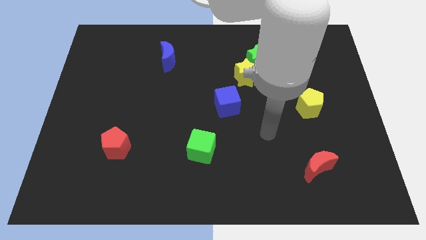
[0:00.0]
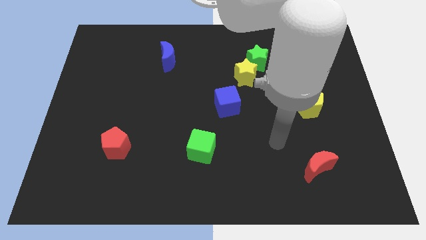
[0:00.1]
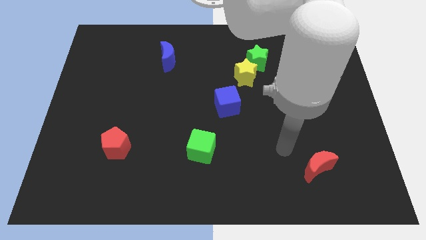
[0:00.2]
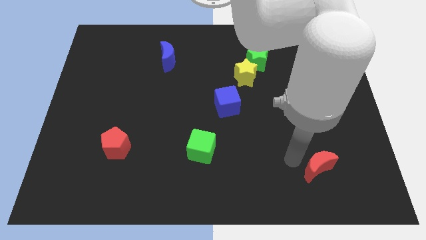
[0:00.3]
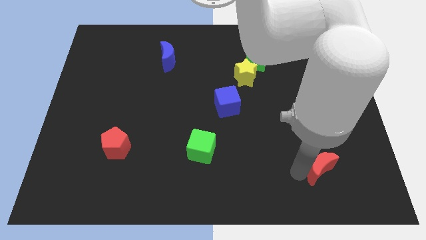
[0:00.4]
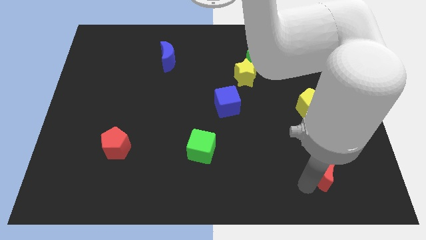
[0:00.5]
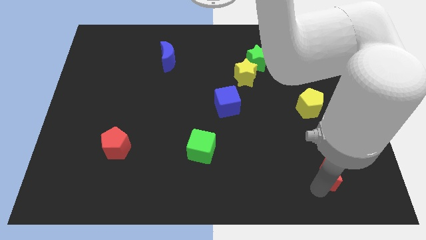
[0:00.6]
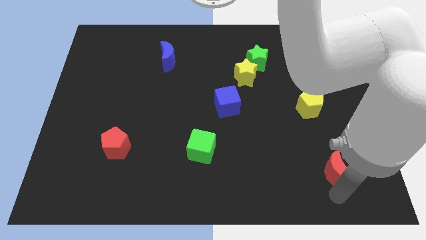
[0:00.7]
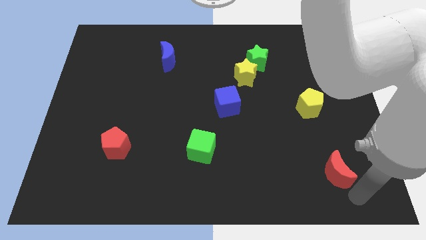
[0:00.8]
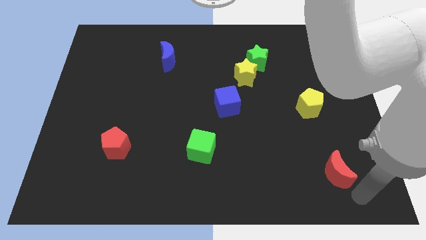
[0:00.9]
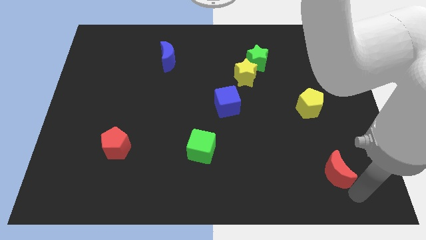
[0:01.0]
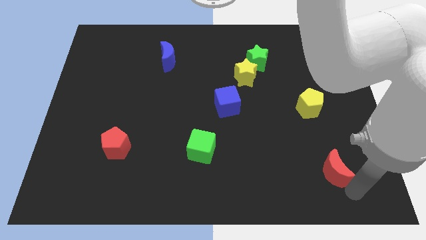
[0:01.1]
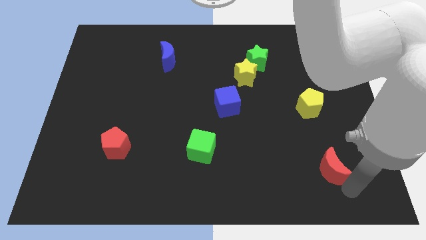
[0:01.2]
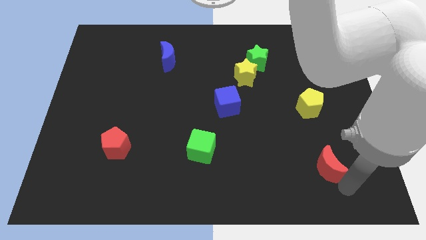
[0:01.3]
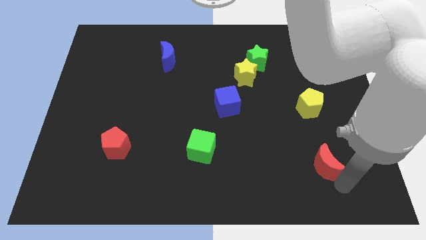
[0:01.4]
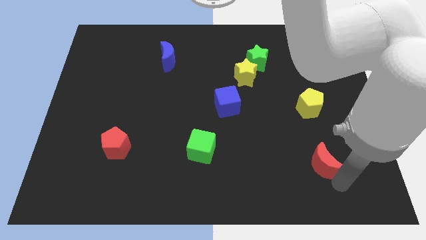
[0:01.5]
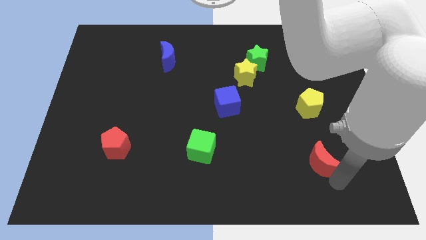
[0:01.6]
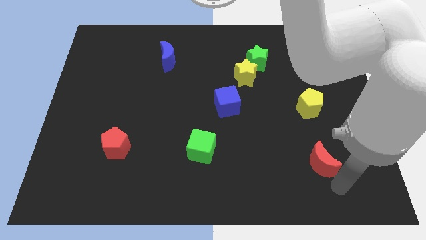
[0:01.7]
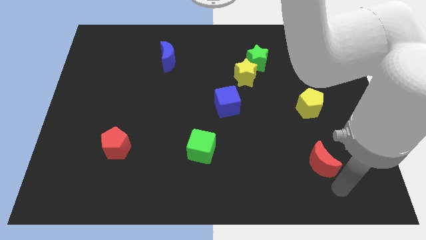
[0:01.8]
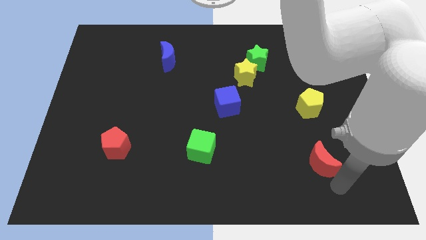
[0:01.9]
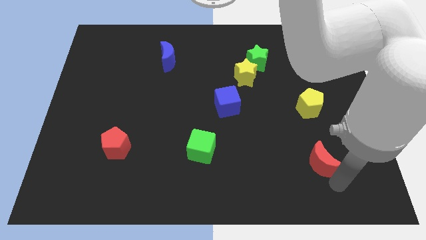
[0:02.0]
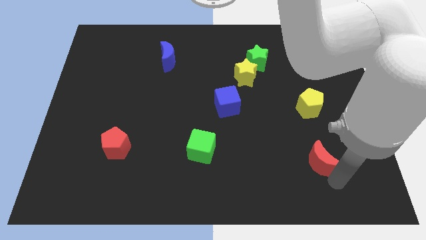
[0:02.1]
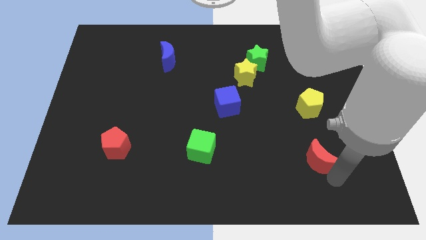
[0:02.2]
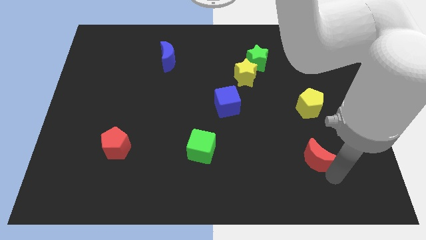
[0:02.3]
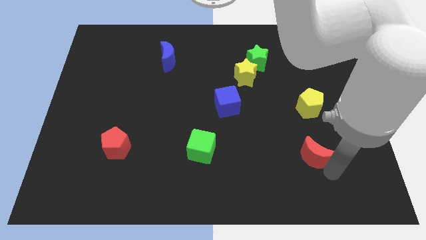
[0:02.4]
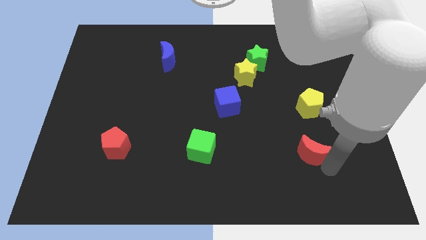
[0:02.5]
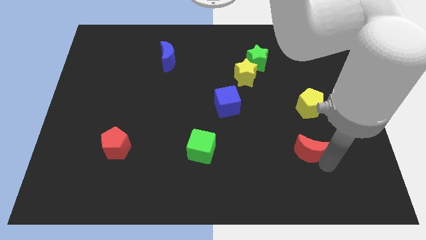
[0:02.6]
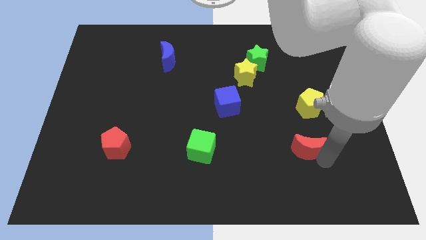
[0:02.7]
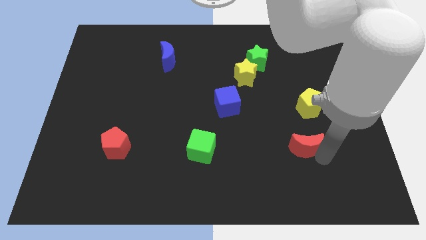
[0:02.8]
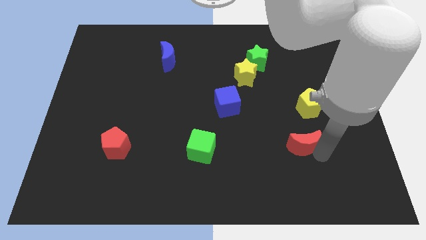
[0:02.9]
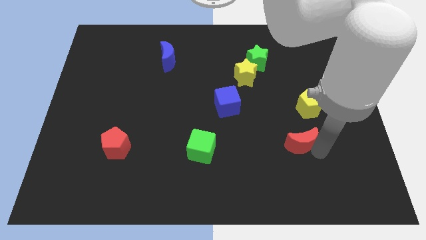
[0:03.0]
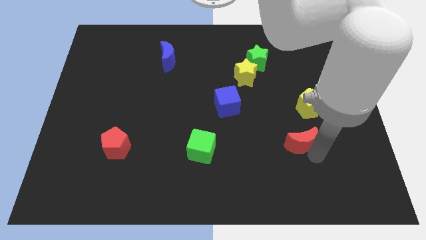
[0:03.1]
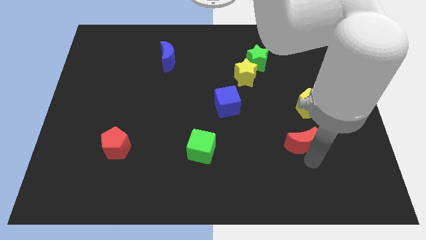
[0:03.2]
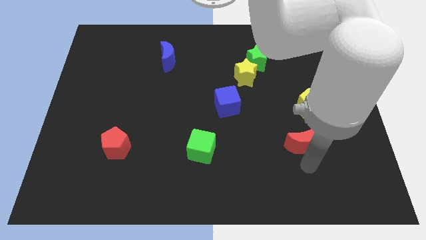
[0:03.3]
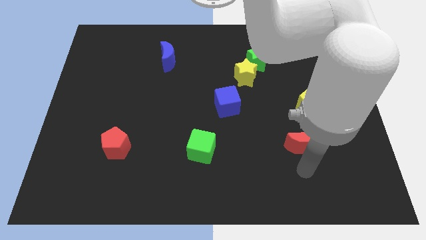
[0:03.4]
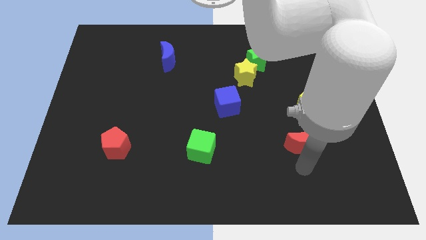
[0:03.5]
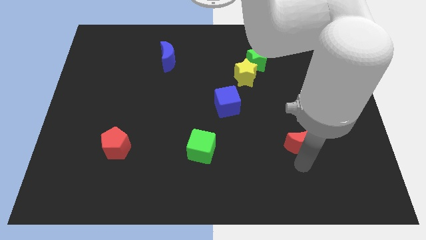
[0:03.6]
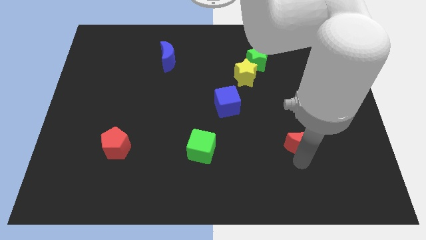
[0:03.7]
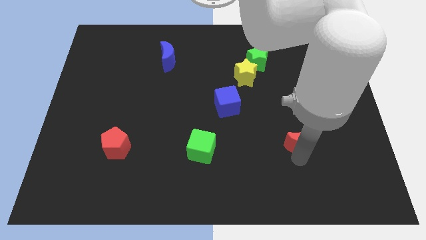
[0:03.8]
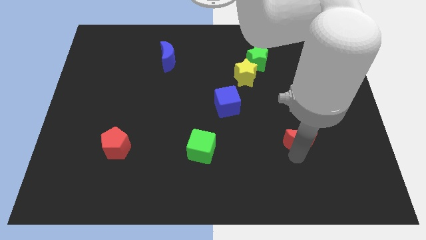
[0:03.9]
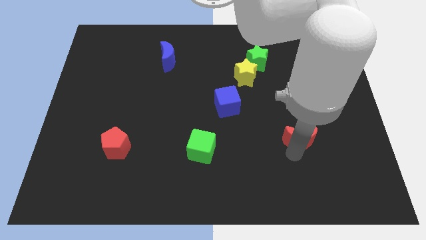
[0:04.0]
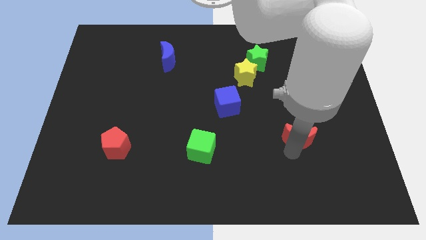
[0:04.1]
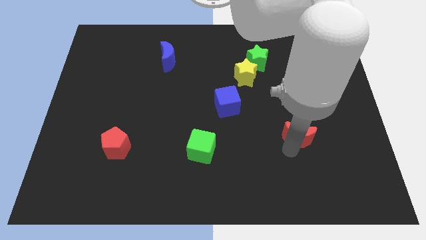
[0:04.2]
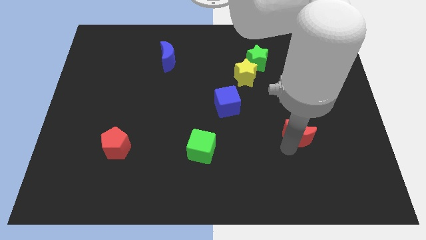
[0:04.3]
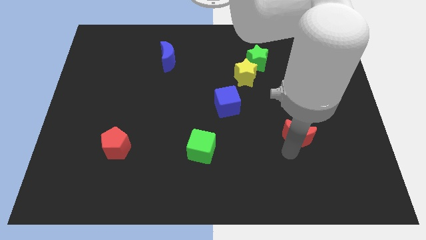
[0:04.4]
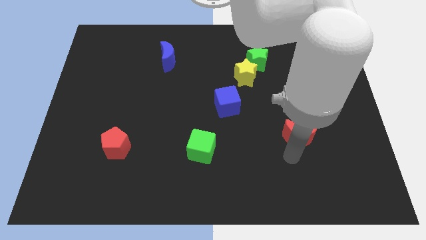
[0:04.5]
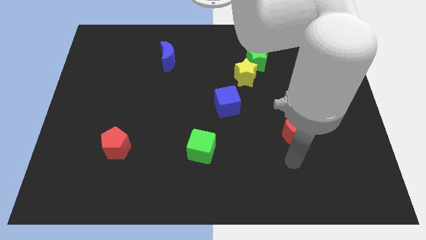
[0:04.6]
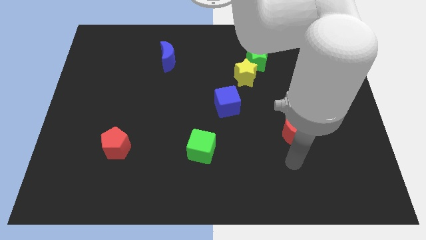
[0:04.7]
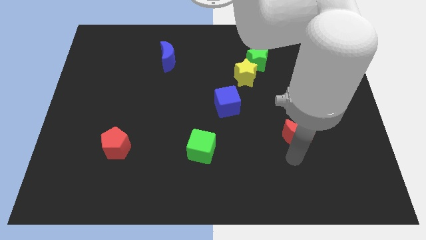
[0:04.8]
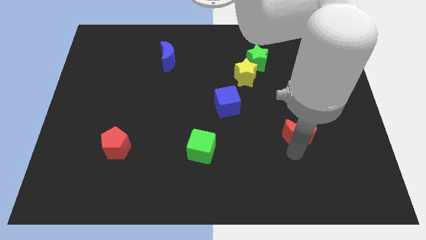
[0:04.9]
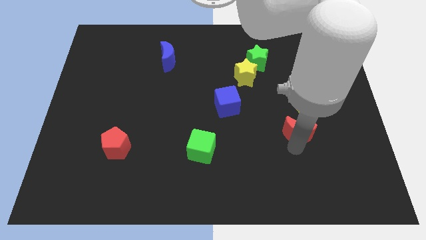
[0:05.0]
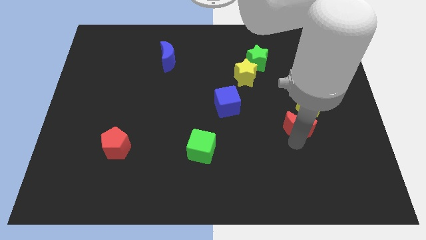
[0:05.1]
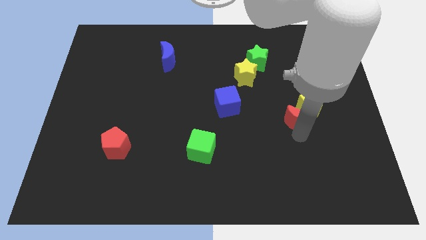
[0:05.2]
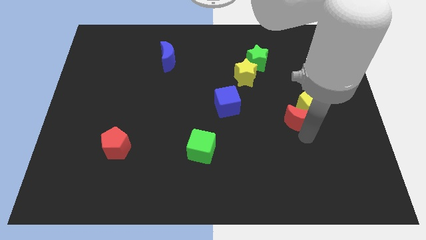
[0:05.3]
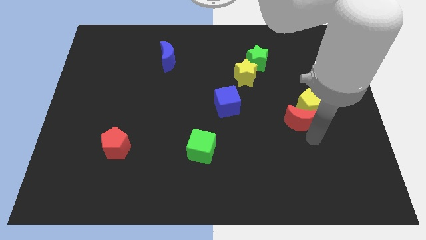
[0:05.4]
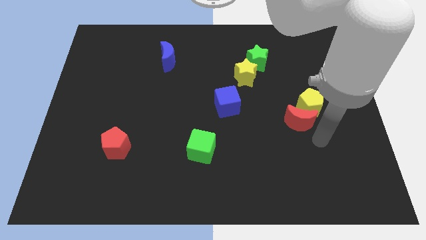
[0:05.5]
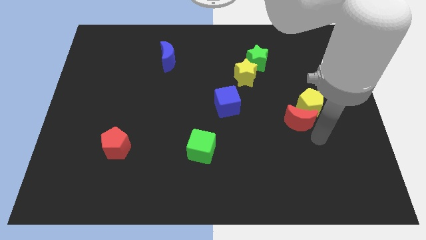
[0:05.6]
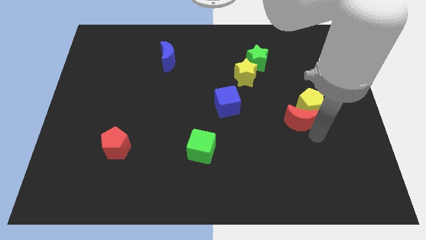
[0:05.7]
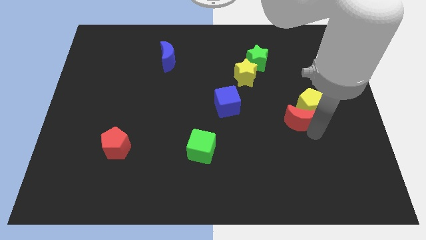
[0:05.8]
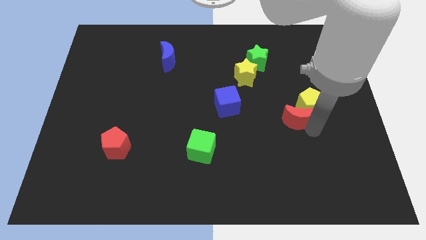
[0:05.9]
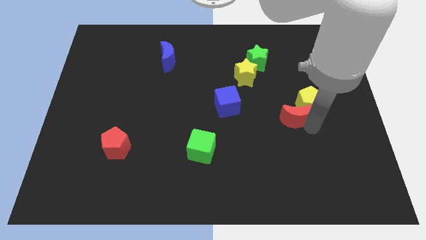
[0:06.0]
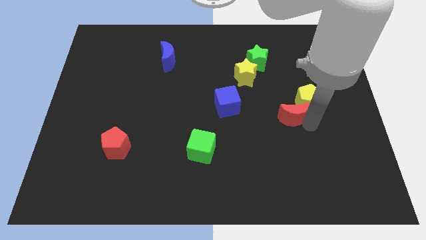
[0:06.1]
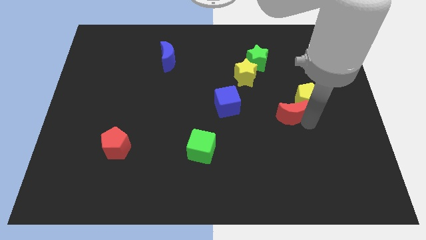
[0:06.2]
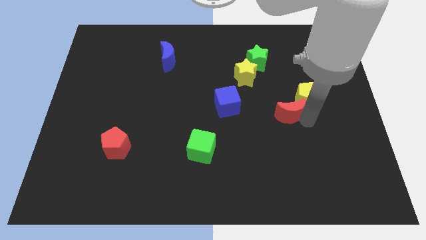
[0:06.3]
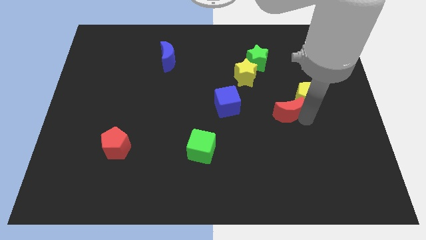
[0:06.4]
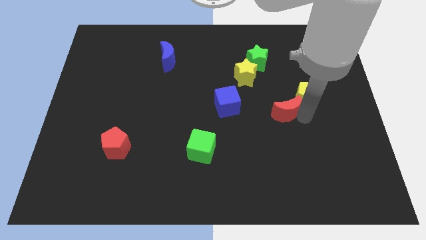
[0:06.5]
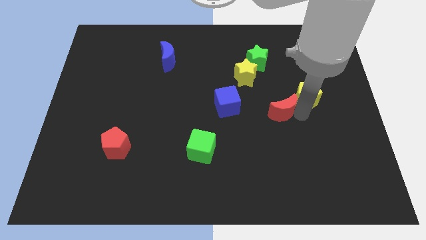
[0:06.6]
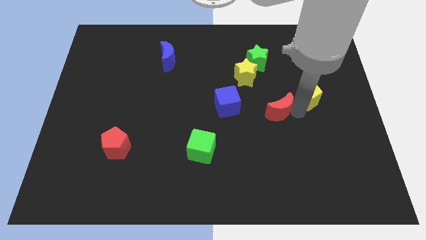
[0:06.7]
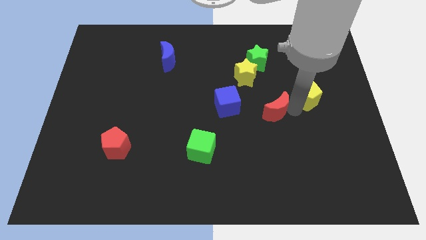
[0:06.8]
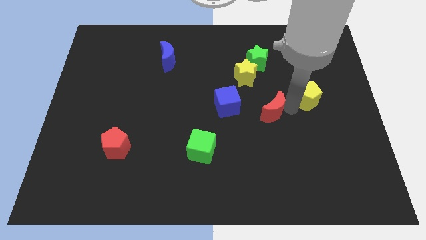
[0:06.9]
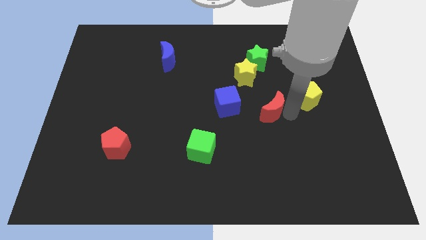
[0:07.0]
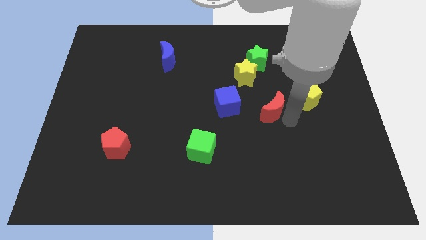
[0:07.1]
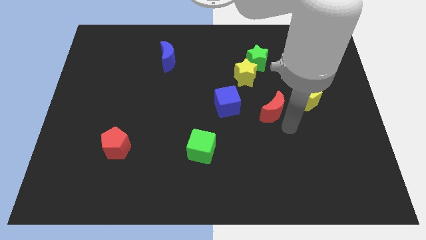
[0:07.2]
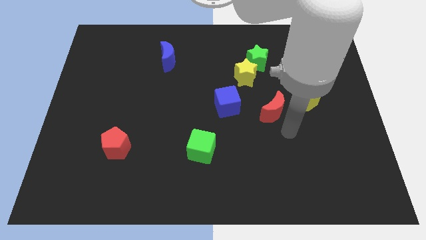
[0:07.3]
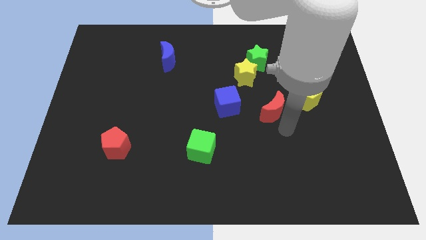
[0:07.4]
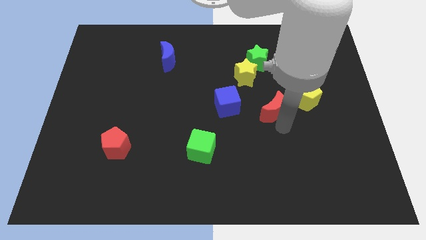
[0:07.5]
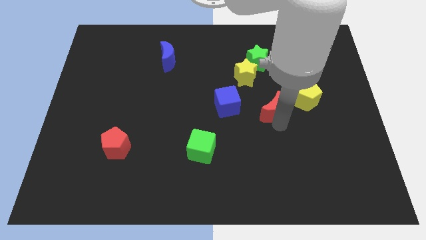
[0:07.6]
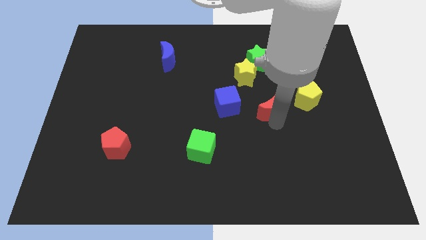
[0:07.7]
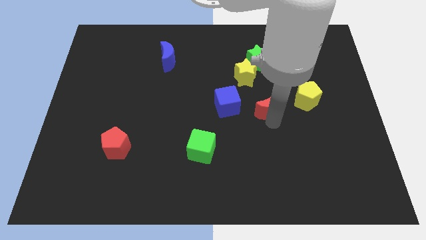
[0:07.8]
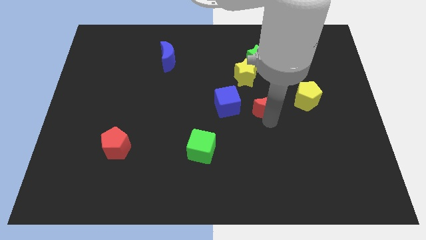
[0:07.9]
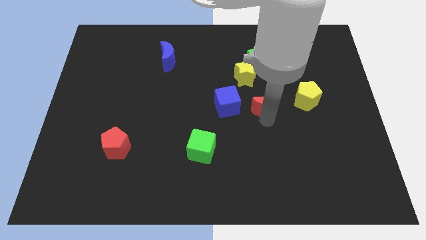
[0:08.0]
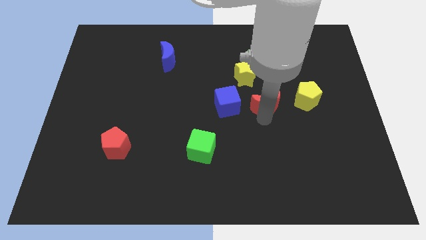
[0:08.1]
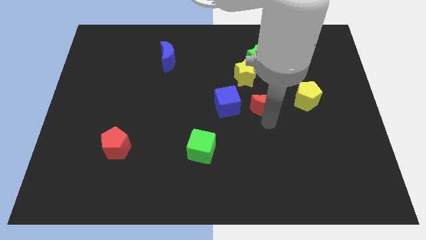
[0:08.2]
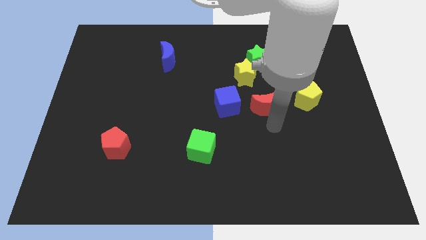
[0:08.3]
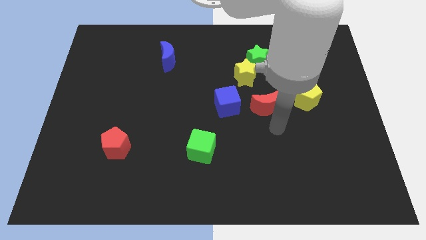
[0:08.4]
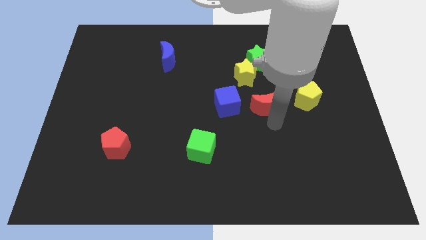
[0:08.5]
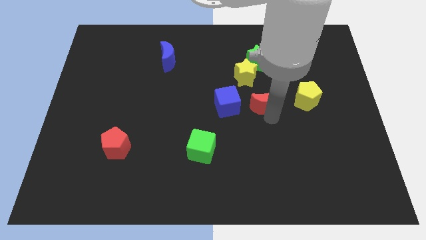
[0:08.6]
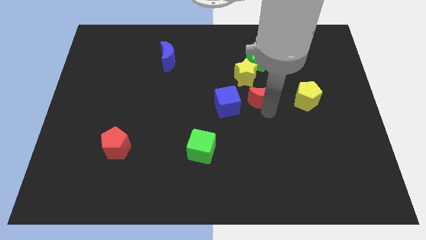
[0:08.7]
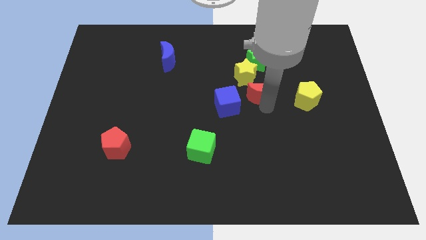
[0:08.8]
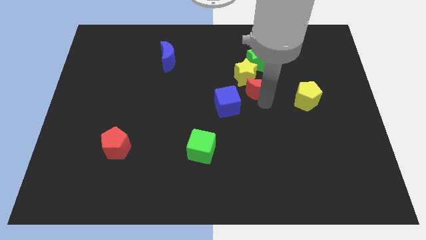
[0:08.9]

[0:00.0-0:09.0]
move the red moon towards the yellow star
